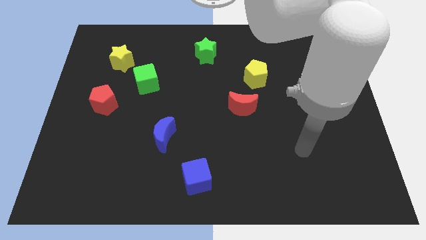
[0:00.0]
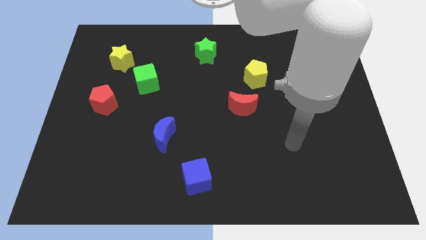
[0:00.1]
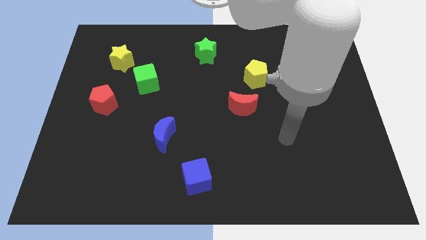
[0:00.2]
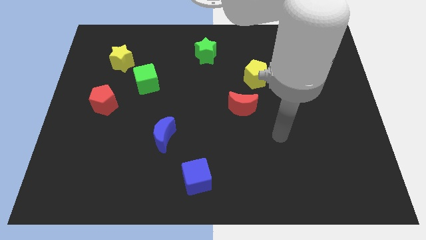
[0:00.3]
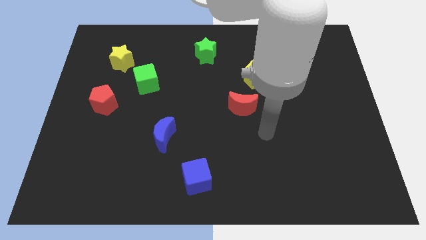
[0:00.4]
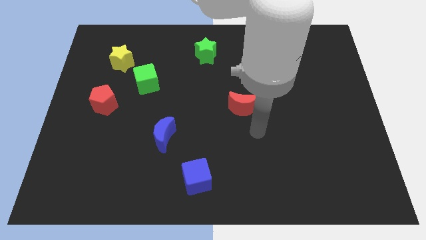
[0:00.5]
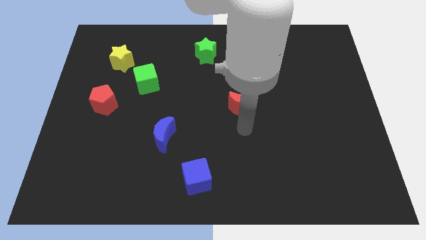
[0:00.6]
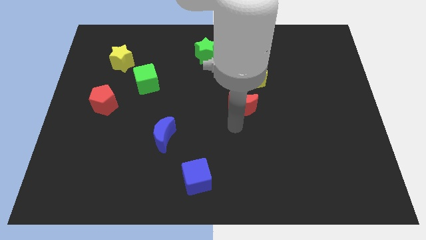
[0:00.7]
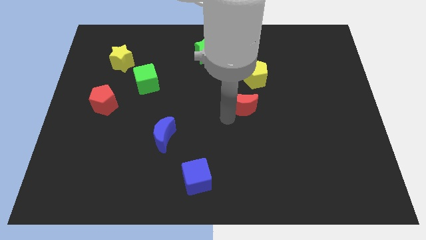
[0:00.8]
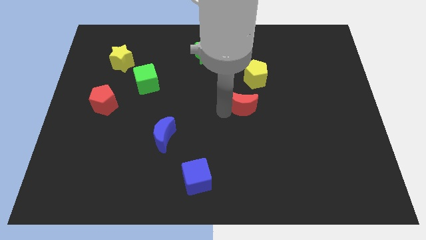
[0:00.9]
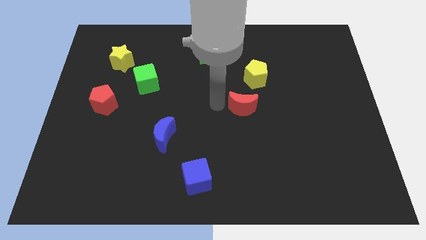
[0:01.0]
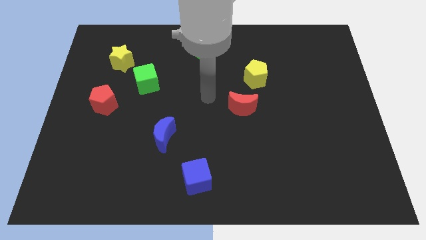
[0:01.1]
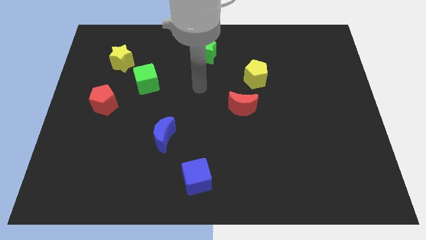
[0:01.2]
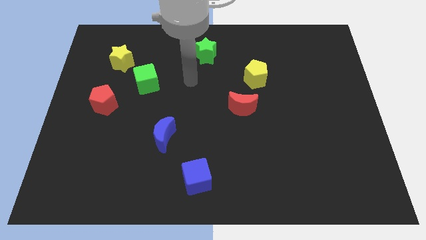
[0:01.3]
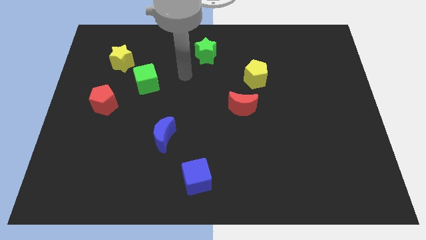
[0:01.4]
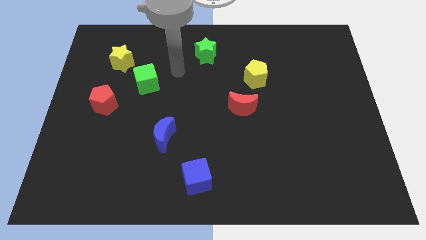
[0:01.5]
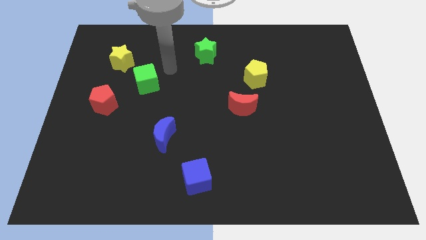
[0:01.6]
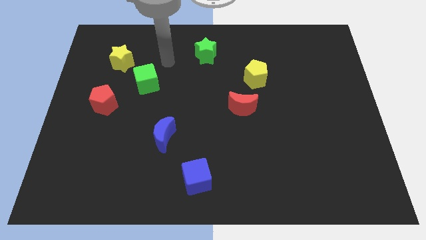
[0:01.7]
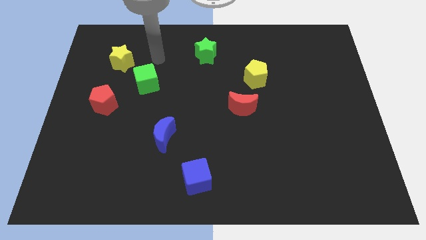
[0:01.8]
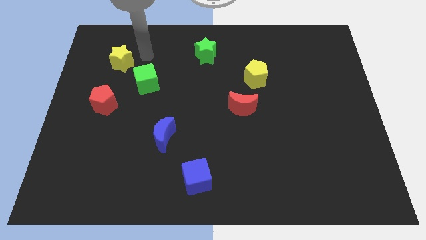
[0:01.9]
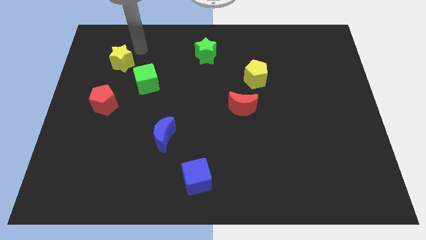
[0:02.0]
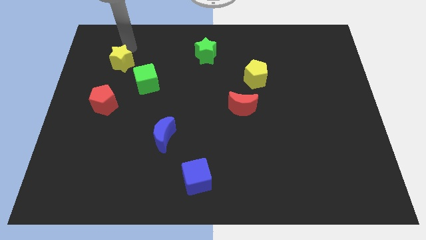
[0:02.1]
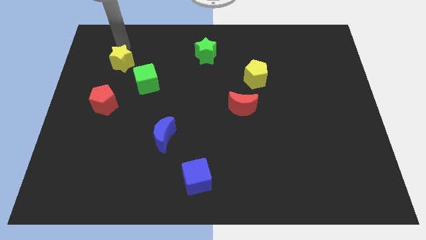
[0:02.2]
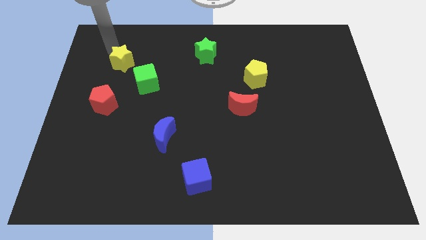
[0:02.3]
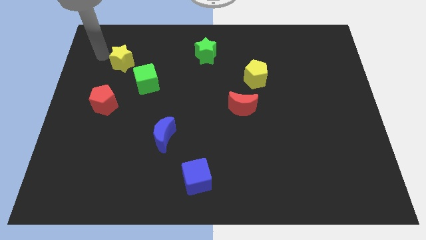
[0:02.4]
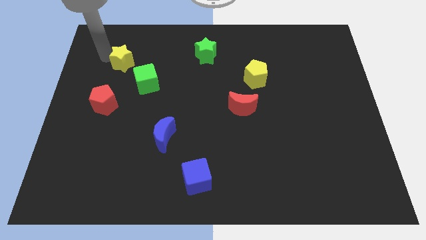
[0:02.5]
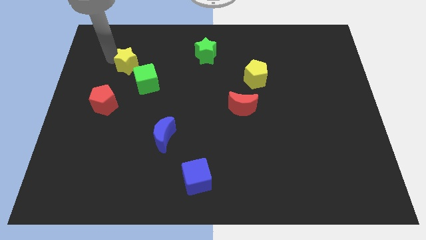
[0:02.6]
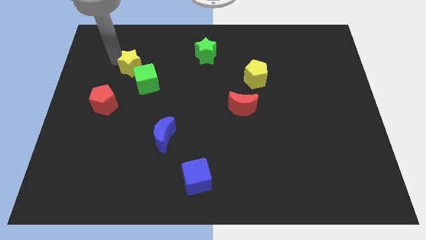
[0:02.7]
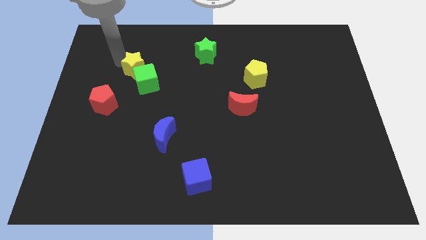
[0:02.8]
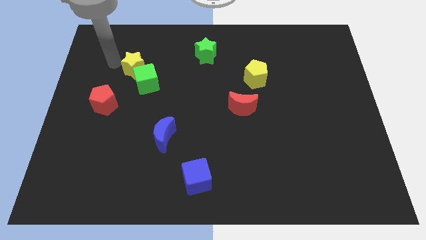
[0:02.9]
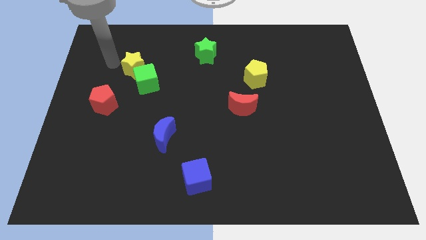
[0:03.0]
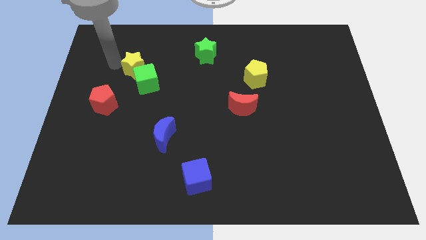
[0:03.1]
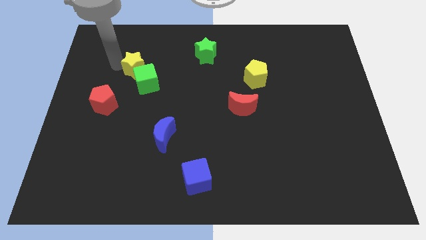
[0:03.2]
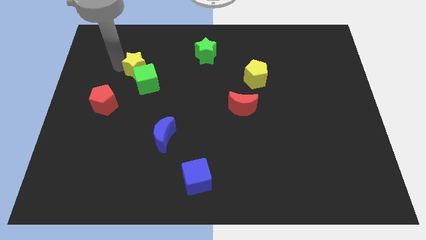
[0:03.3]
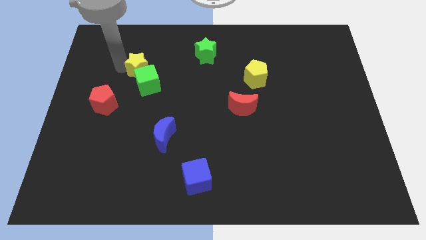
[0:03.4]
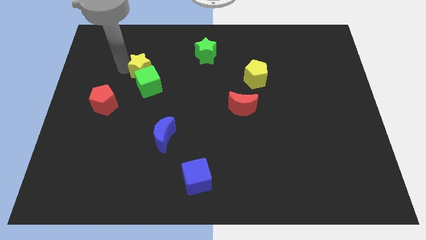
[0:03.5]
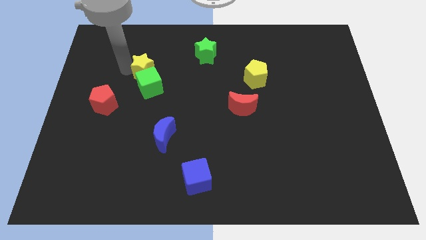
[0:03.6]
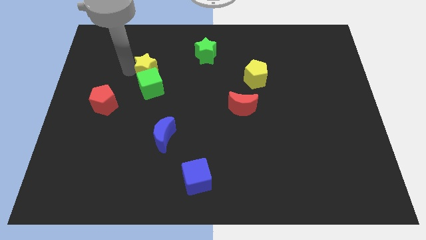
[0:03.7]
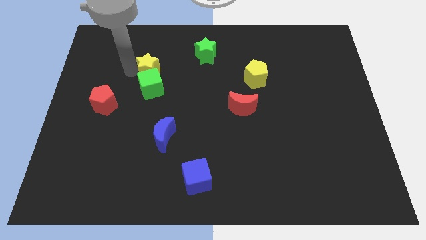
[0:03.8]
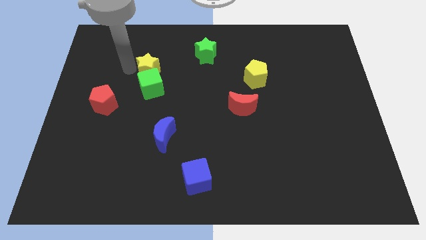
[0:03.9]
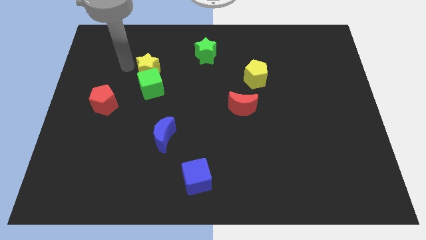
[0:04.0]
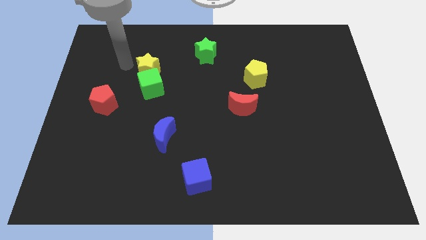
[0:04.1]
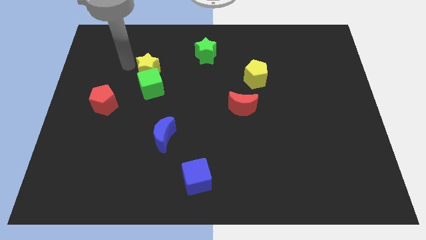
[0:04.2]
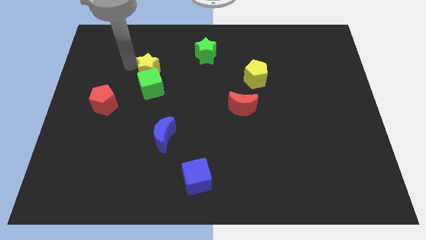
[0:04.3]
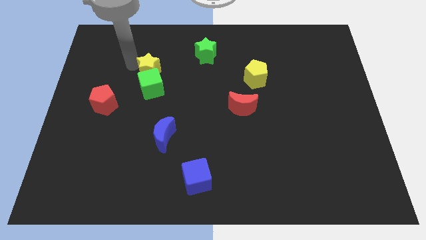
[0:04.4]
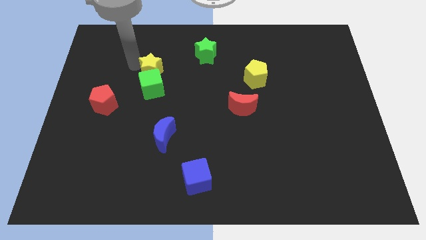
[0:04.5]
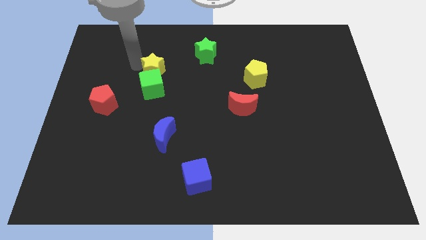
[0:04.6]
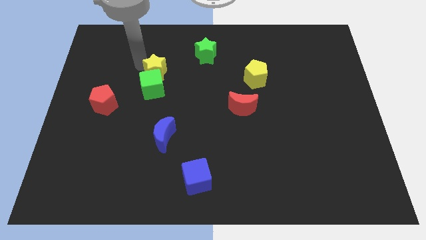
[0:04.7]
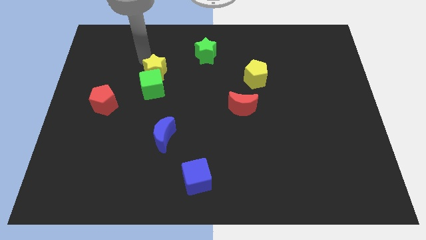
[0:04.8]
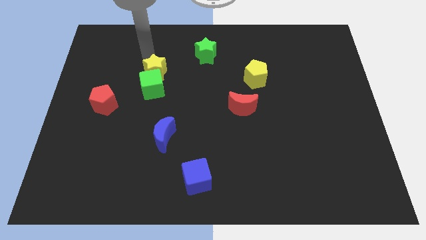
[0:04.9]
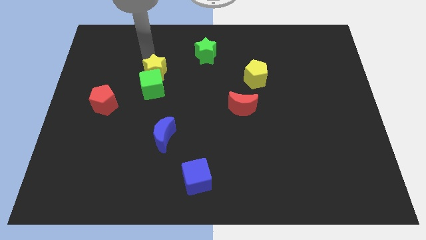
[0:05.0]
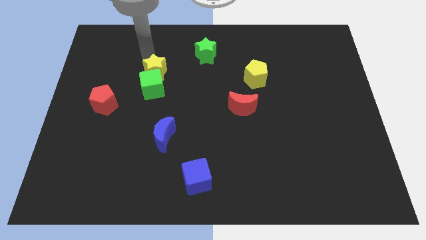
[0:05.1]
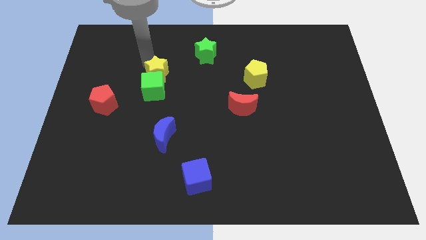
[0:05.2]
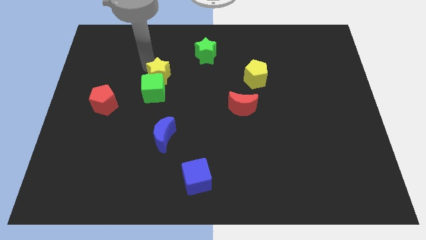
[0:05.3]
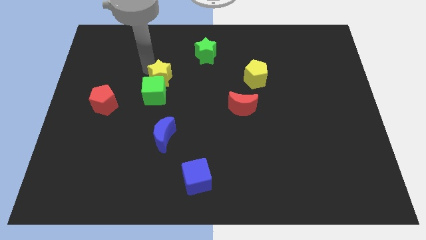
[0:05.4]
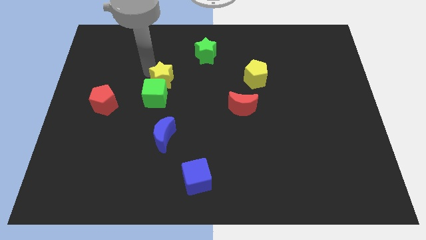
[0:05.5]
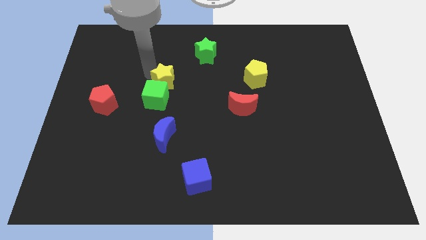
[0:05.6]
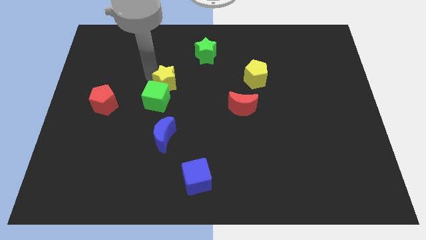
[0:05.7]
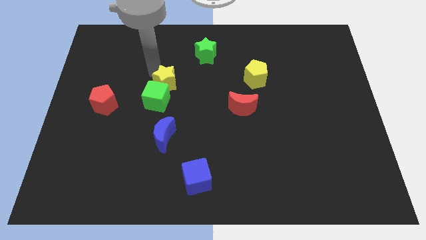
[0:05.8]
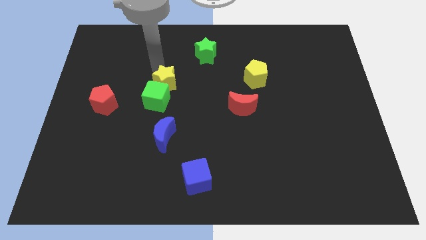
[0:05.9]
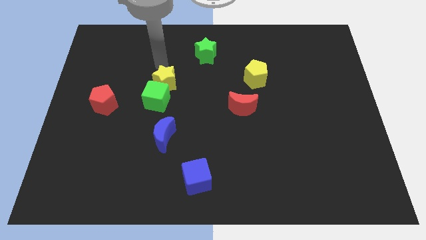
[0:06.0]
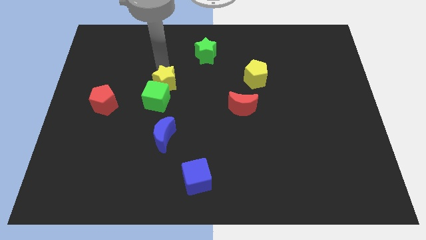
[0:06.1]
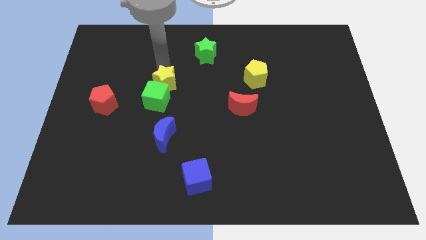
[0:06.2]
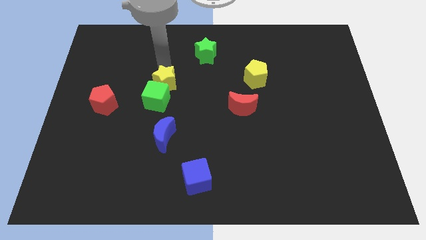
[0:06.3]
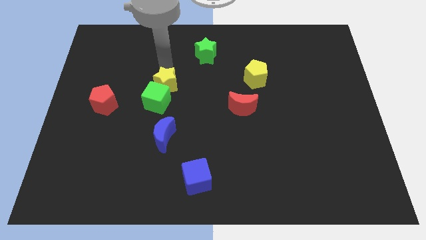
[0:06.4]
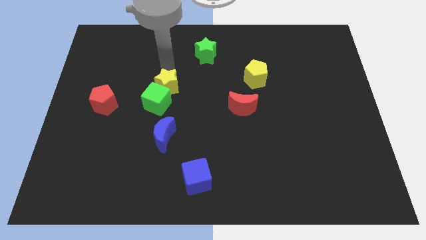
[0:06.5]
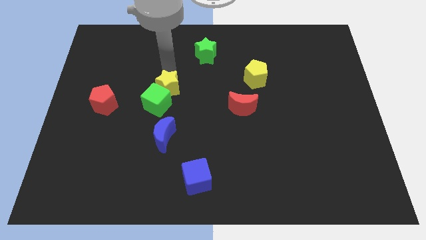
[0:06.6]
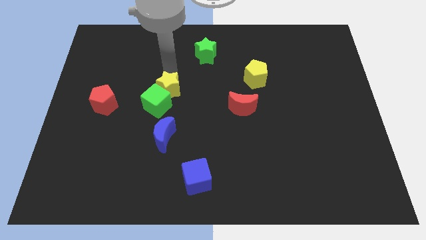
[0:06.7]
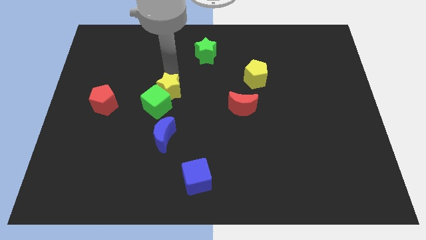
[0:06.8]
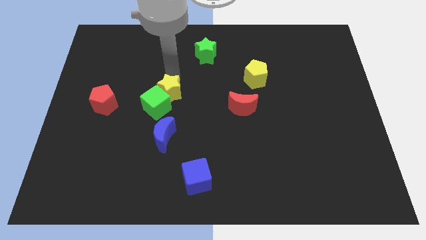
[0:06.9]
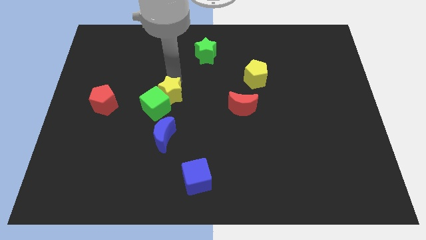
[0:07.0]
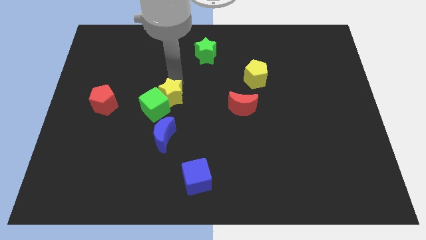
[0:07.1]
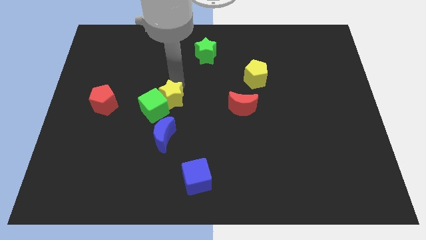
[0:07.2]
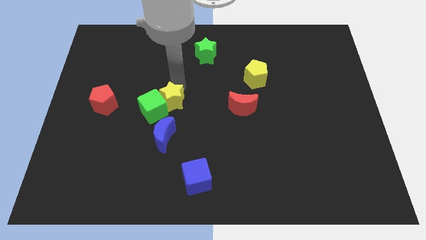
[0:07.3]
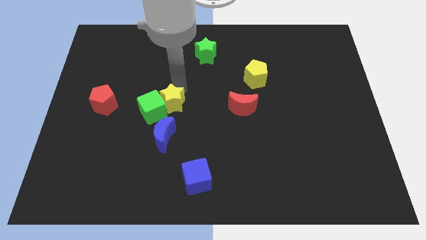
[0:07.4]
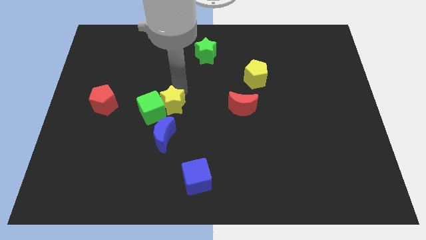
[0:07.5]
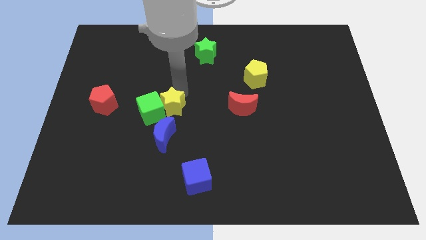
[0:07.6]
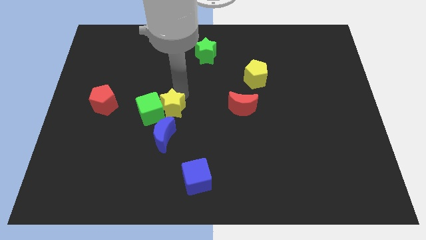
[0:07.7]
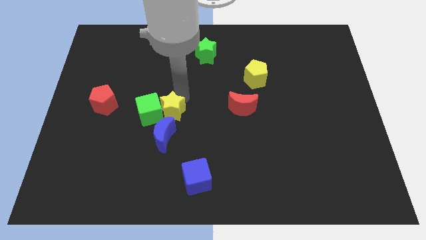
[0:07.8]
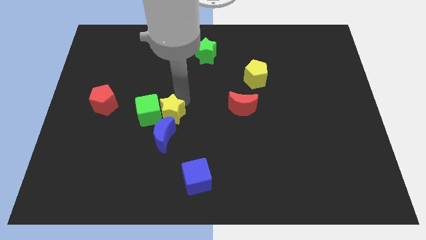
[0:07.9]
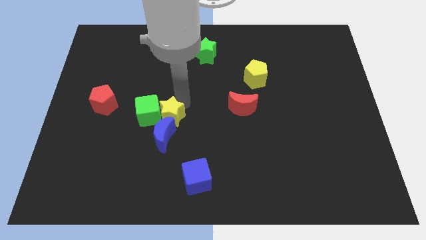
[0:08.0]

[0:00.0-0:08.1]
put the yellow star close to the blue moon
